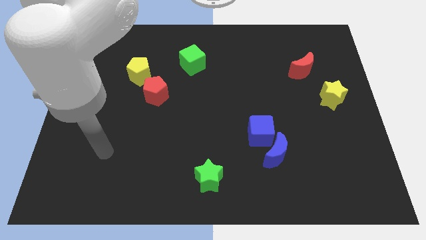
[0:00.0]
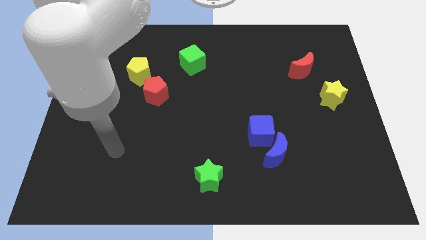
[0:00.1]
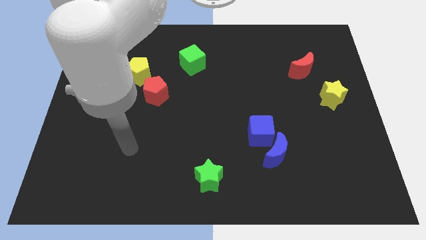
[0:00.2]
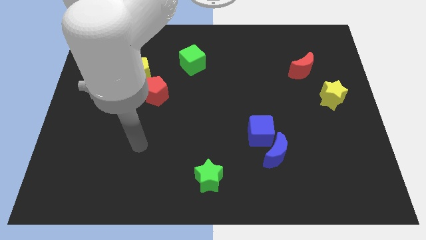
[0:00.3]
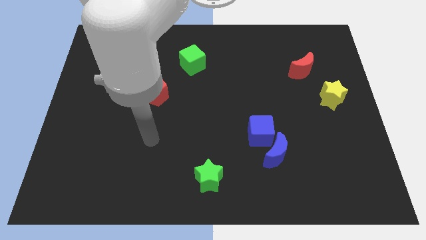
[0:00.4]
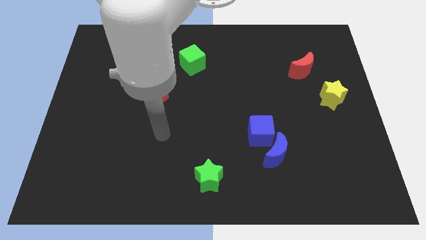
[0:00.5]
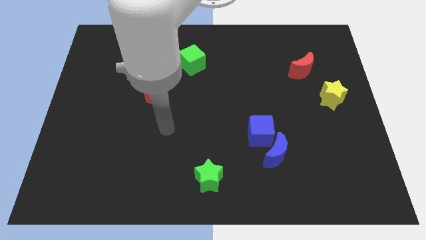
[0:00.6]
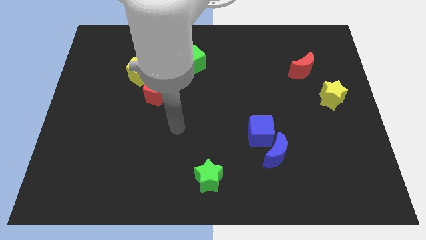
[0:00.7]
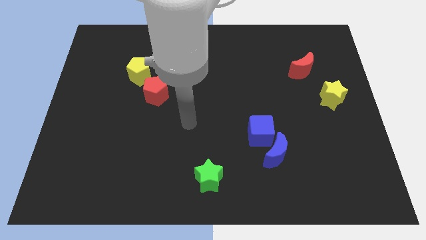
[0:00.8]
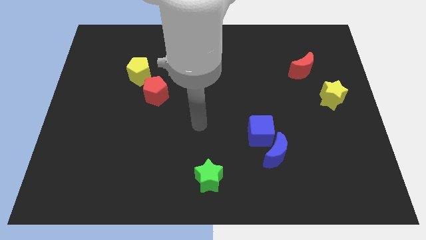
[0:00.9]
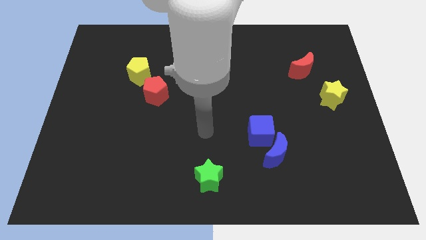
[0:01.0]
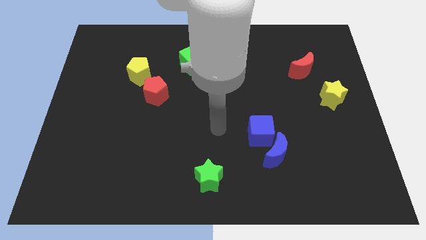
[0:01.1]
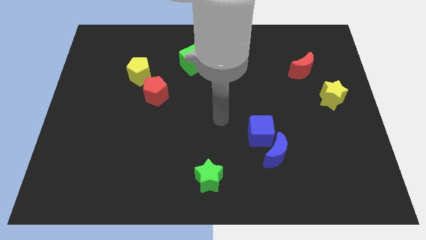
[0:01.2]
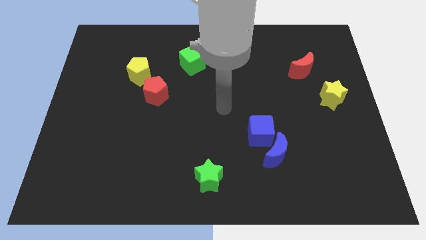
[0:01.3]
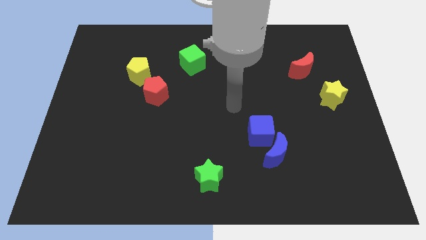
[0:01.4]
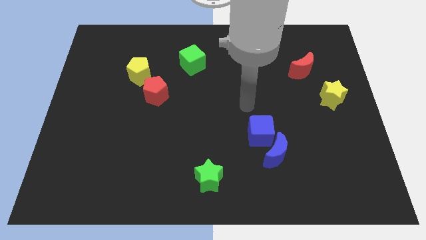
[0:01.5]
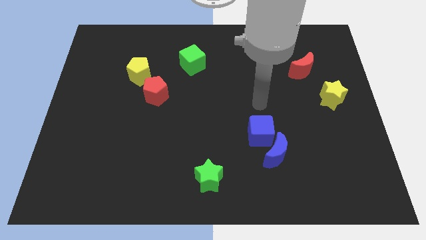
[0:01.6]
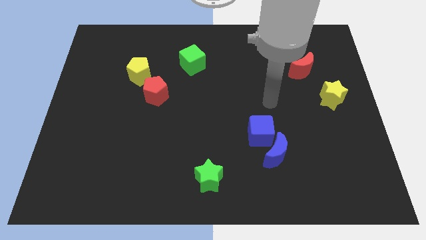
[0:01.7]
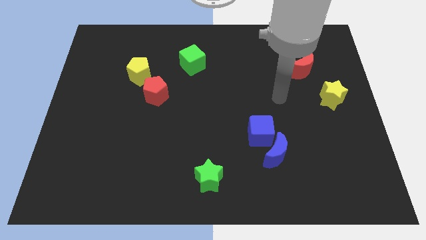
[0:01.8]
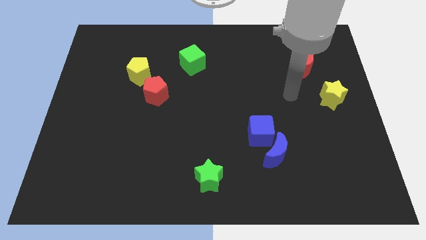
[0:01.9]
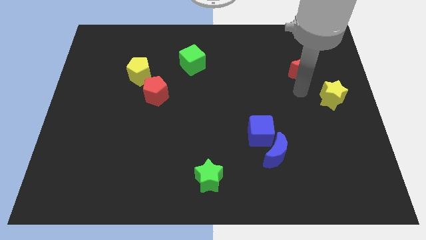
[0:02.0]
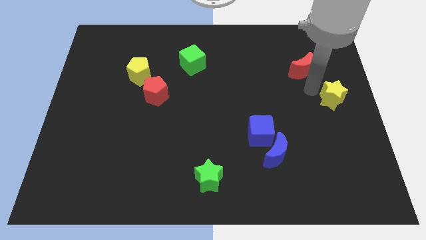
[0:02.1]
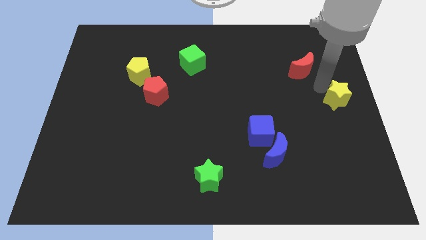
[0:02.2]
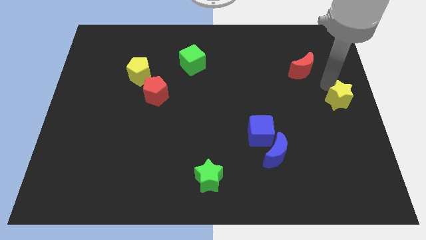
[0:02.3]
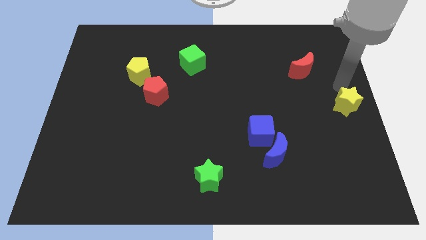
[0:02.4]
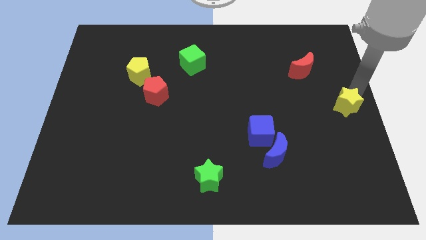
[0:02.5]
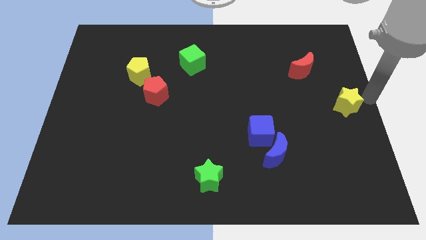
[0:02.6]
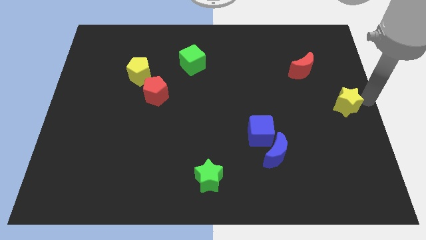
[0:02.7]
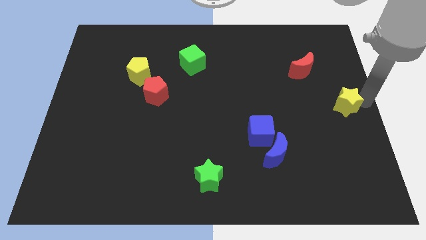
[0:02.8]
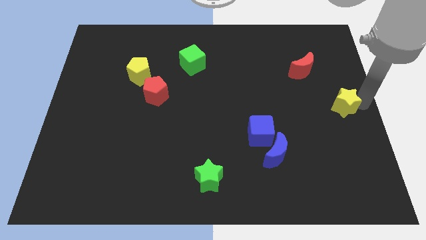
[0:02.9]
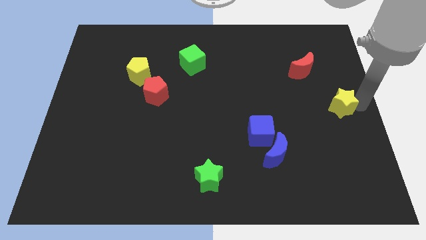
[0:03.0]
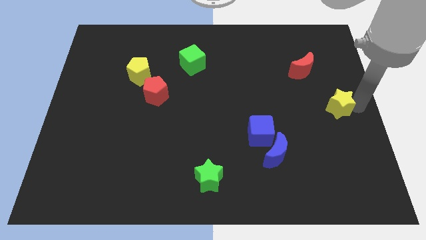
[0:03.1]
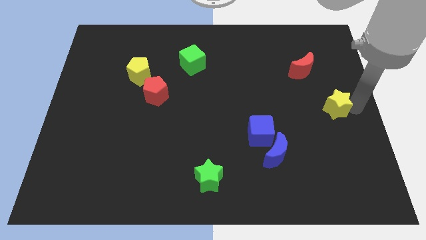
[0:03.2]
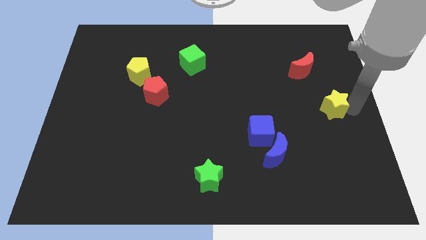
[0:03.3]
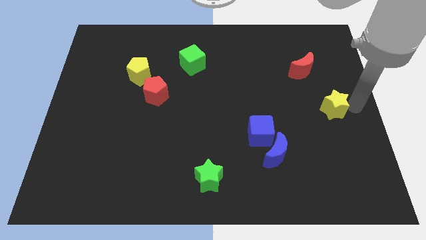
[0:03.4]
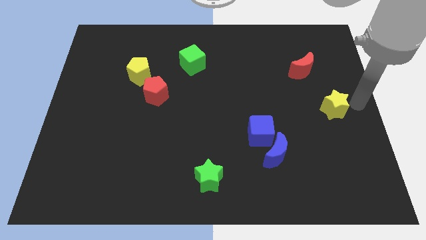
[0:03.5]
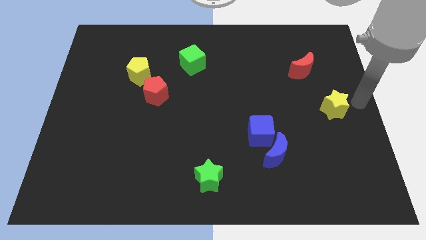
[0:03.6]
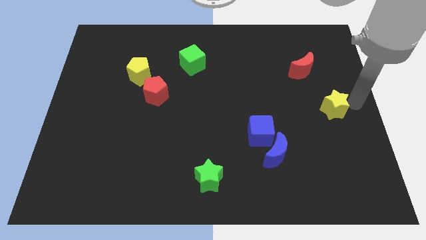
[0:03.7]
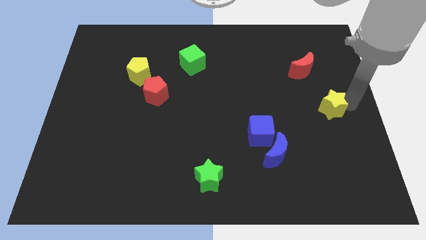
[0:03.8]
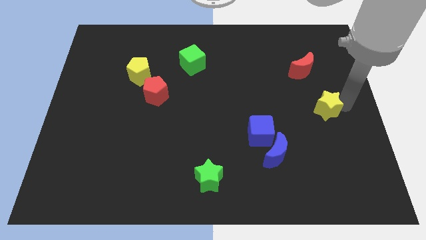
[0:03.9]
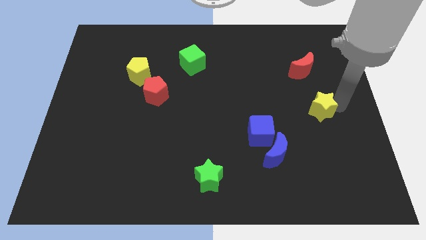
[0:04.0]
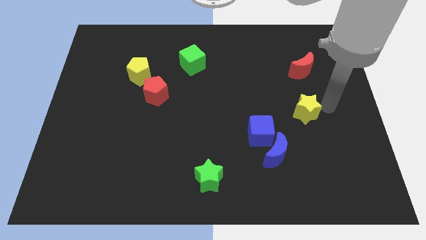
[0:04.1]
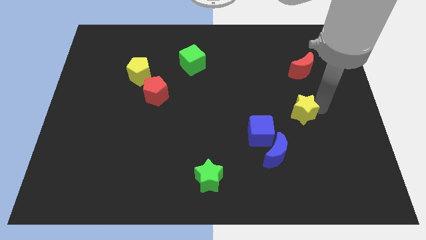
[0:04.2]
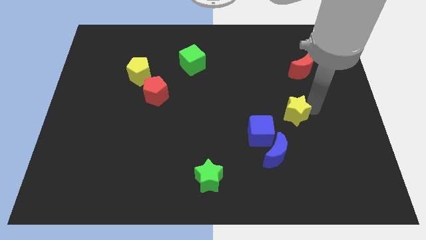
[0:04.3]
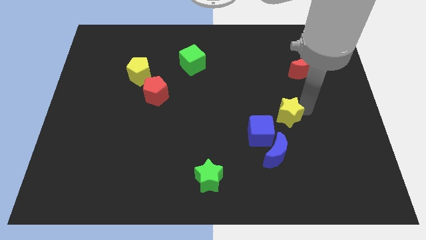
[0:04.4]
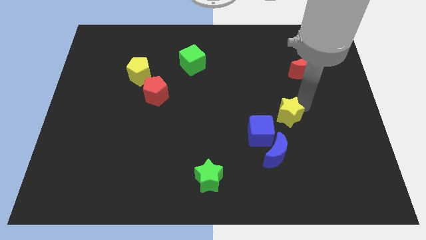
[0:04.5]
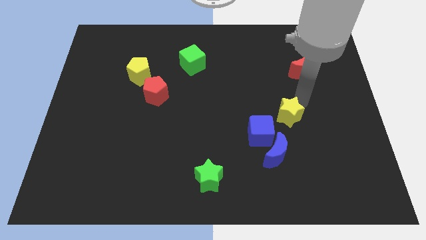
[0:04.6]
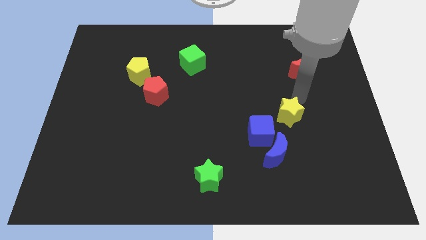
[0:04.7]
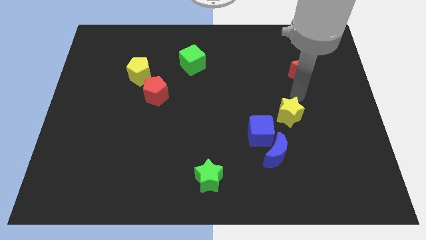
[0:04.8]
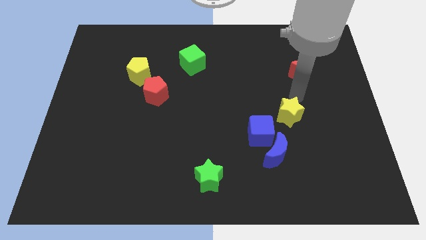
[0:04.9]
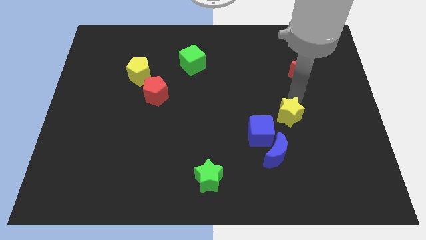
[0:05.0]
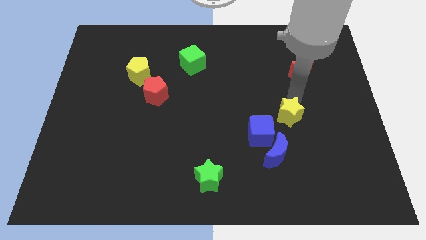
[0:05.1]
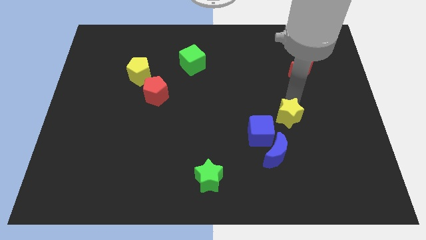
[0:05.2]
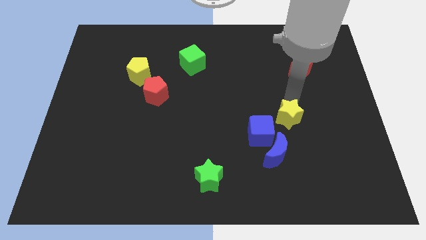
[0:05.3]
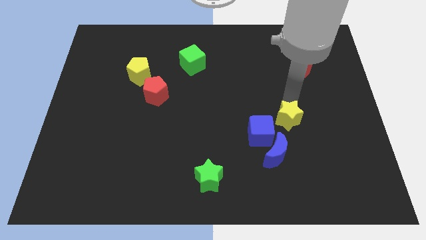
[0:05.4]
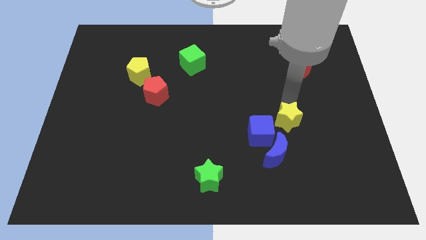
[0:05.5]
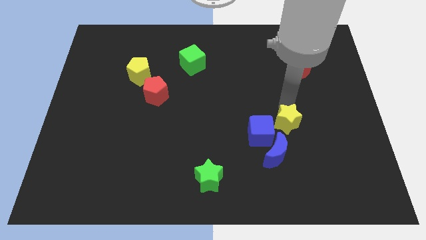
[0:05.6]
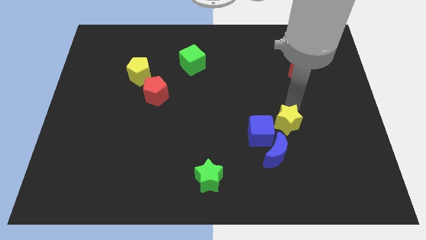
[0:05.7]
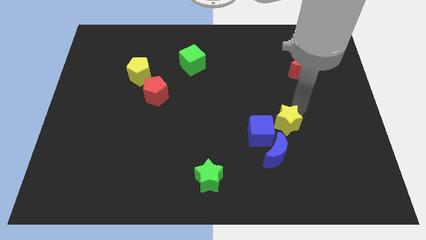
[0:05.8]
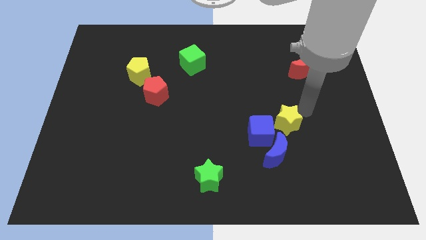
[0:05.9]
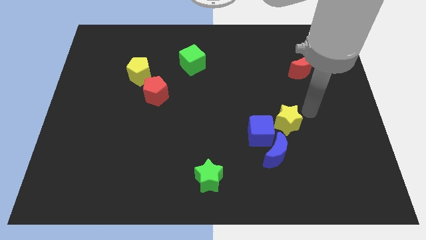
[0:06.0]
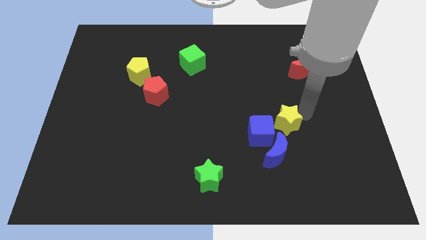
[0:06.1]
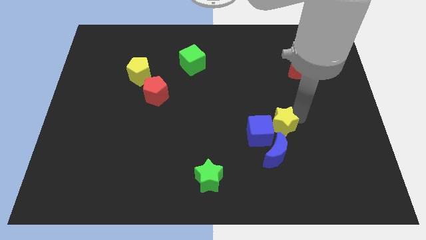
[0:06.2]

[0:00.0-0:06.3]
slide the yellow star close to the blue cube

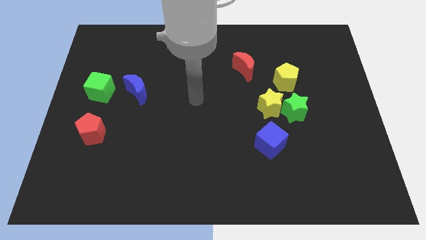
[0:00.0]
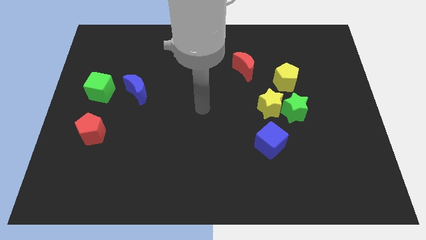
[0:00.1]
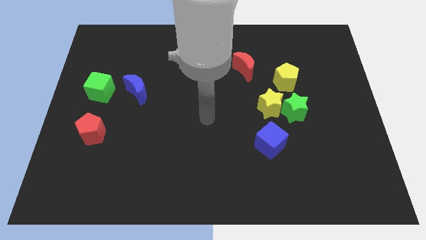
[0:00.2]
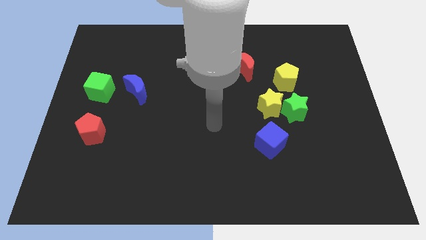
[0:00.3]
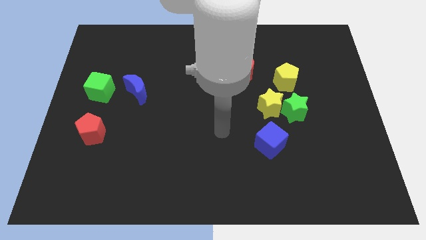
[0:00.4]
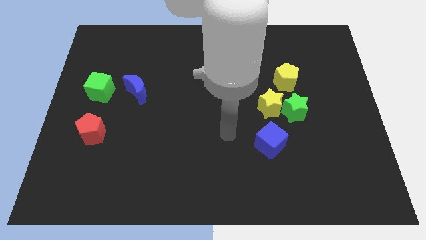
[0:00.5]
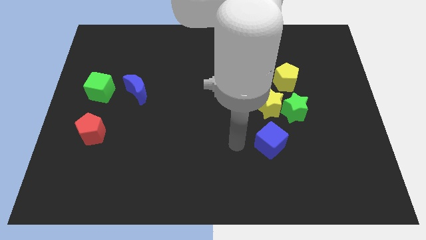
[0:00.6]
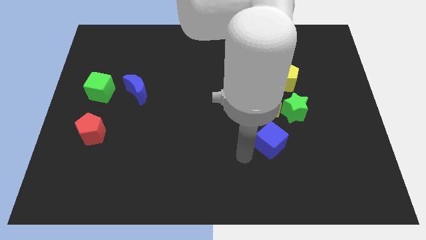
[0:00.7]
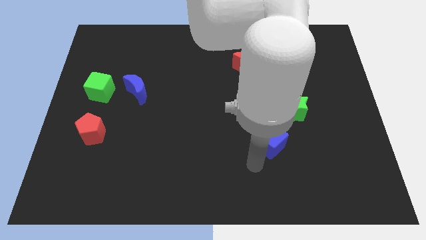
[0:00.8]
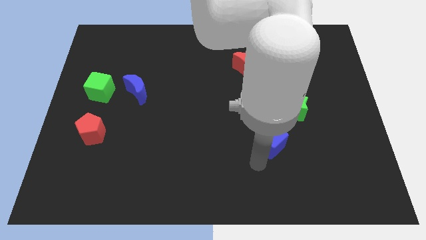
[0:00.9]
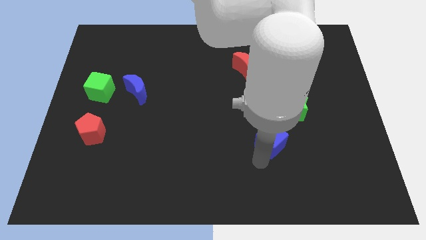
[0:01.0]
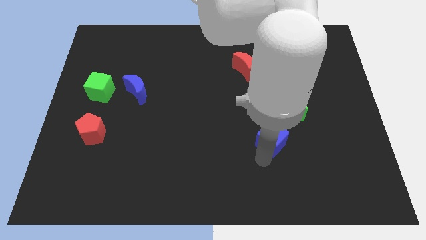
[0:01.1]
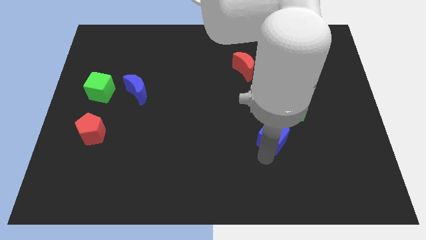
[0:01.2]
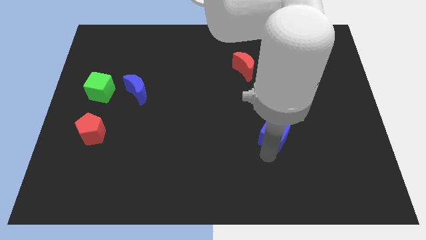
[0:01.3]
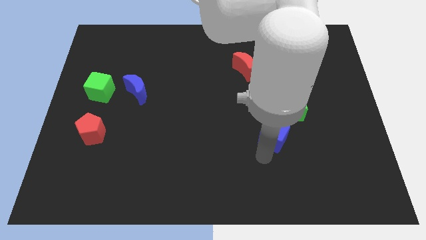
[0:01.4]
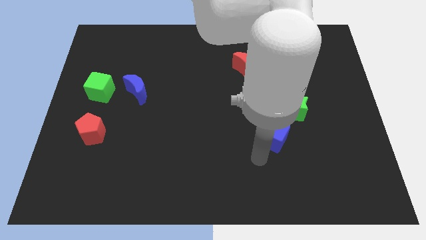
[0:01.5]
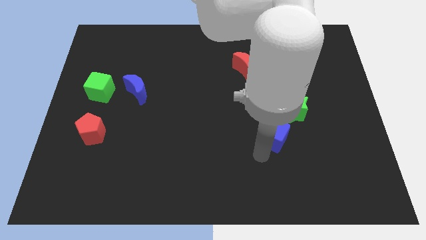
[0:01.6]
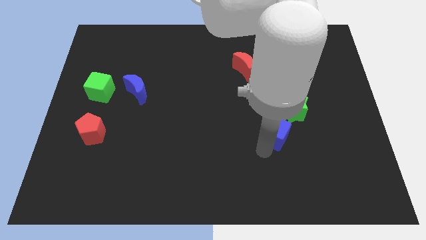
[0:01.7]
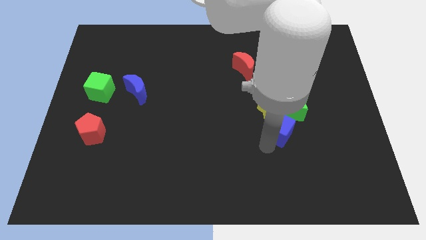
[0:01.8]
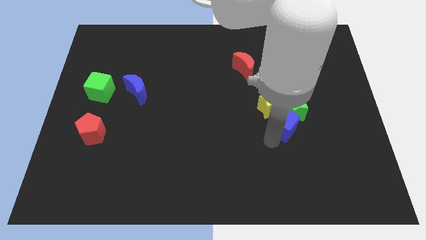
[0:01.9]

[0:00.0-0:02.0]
put the blue cube to the green star
